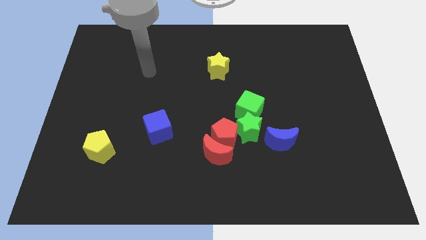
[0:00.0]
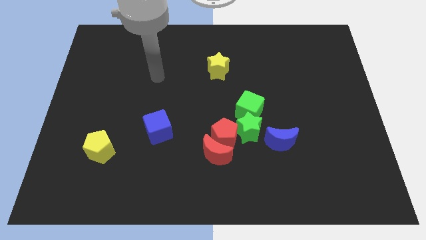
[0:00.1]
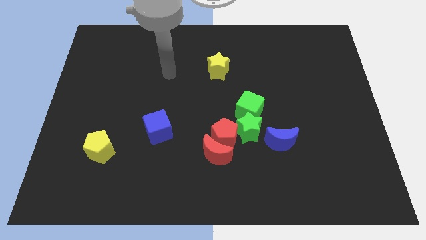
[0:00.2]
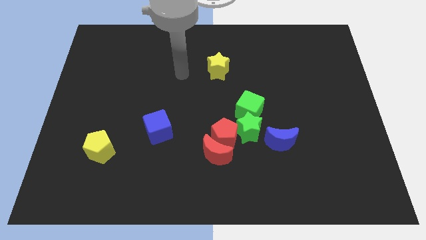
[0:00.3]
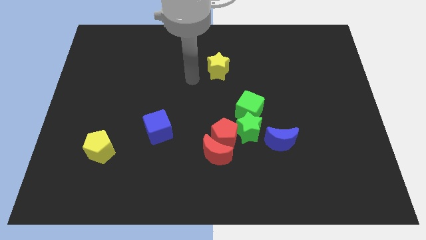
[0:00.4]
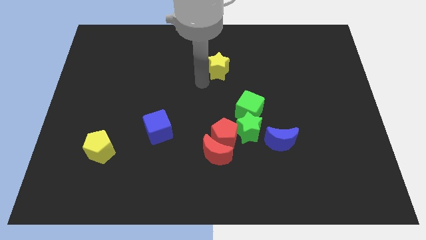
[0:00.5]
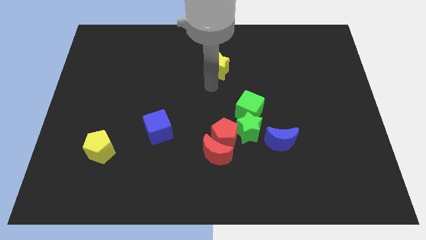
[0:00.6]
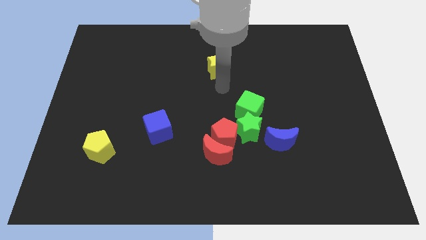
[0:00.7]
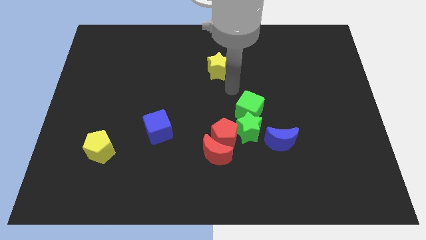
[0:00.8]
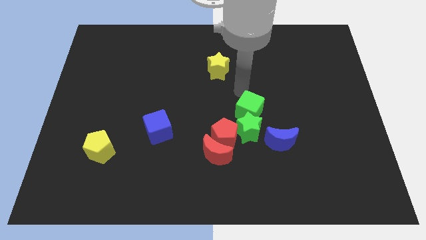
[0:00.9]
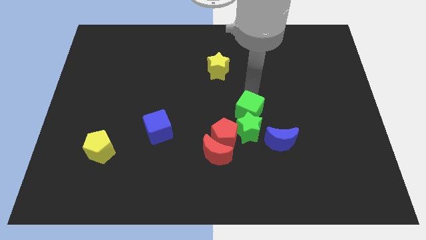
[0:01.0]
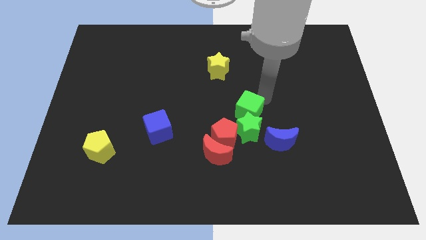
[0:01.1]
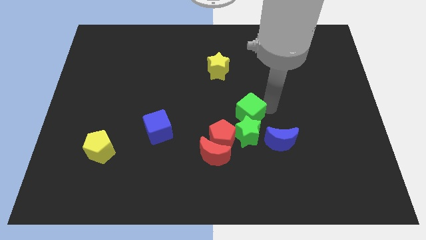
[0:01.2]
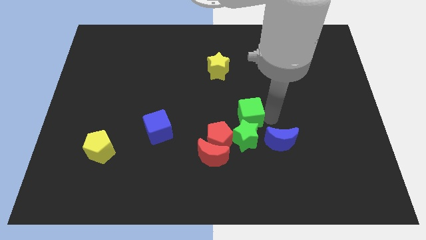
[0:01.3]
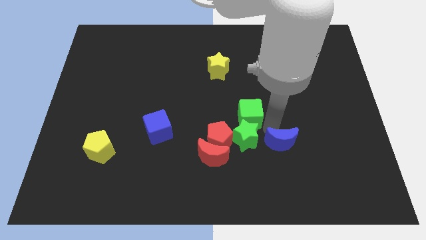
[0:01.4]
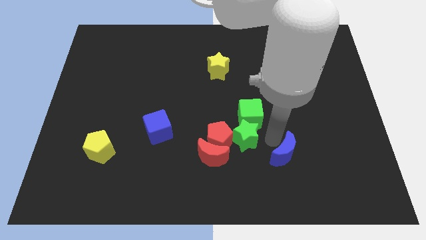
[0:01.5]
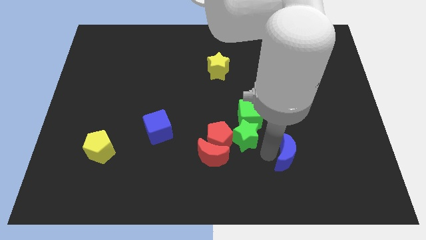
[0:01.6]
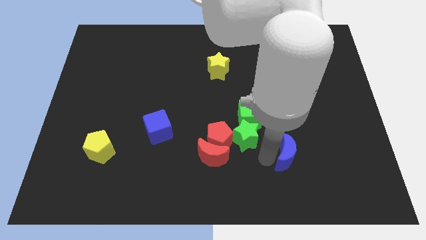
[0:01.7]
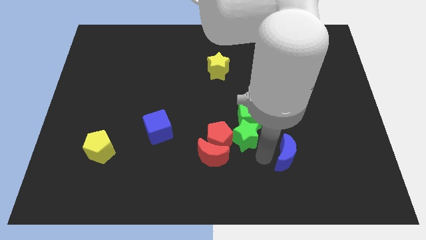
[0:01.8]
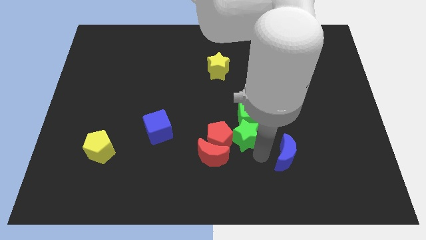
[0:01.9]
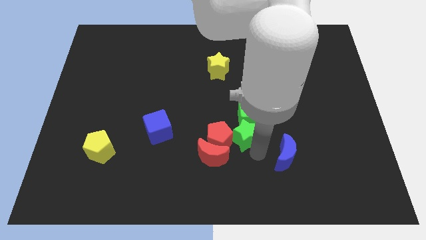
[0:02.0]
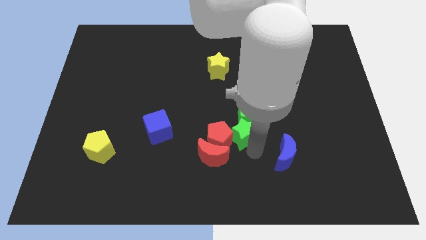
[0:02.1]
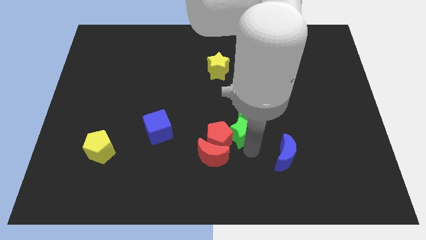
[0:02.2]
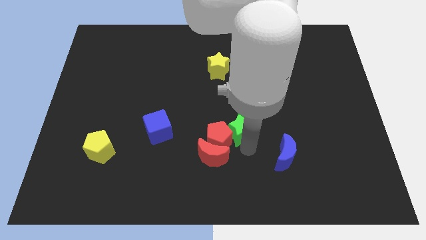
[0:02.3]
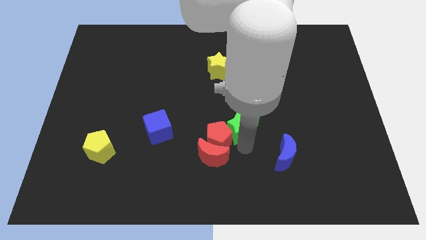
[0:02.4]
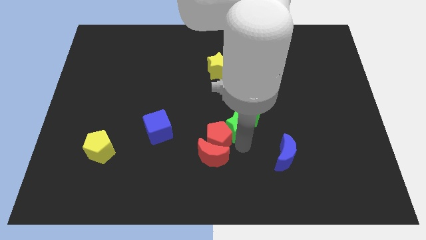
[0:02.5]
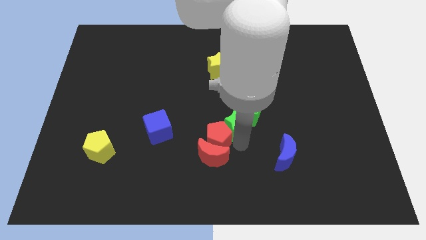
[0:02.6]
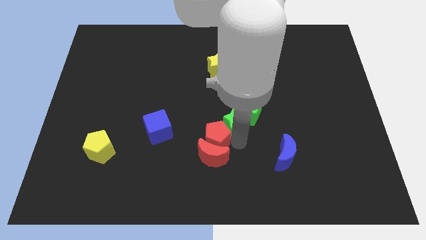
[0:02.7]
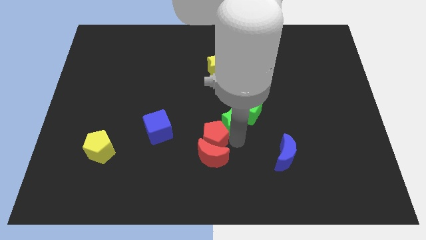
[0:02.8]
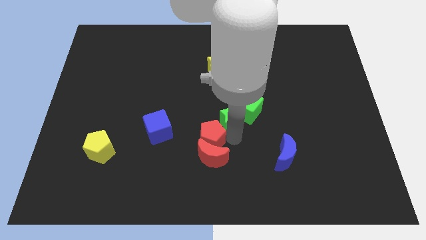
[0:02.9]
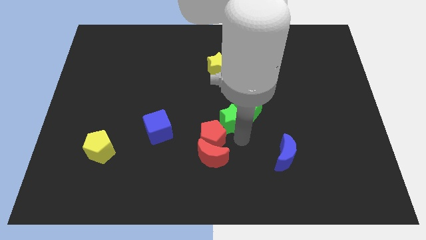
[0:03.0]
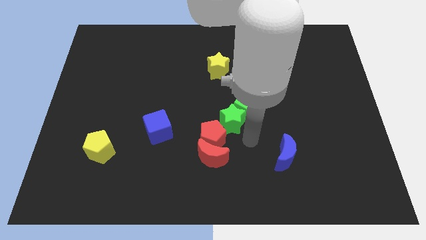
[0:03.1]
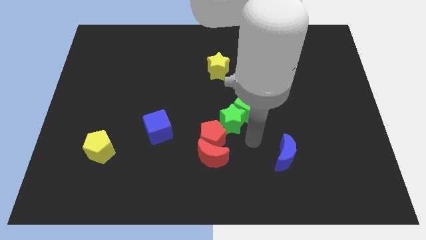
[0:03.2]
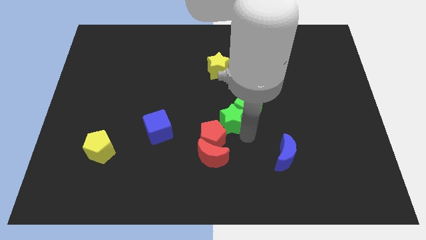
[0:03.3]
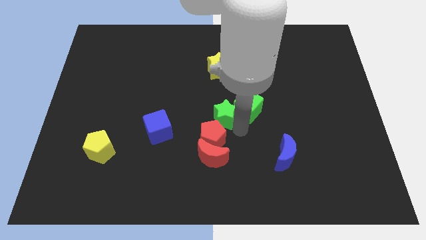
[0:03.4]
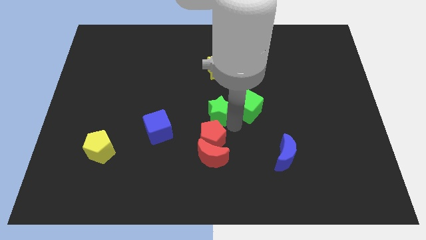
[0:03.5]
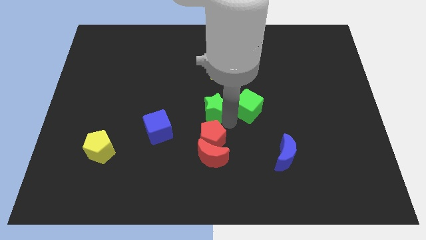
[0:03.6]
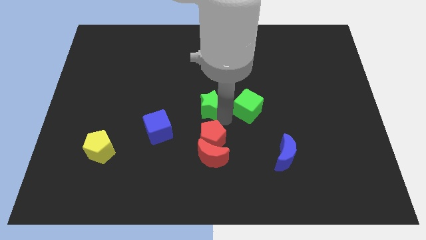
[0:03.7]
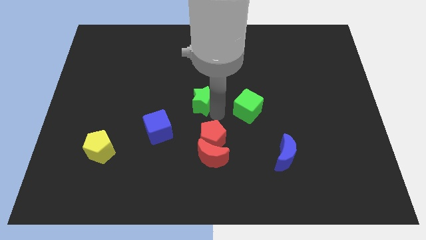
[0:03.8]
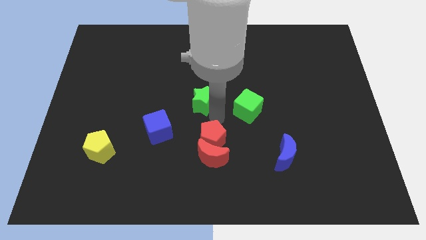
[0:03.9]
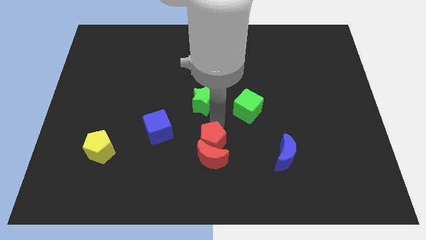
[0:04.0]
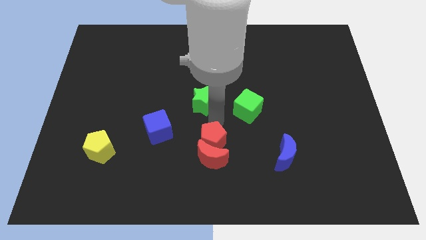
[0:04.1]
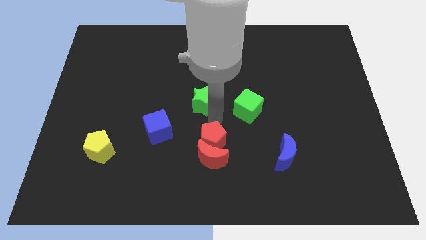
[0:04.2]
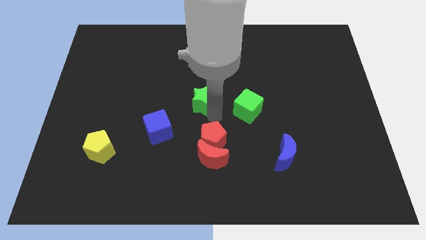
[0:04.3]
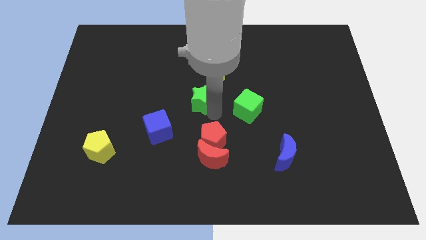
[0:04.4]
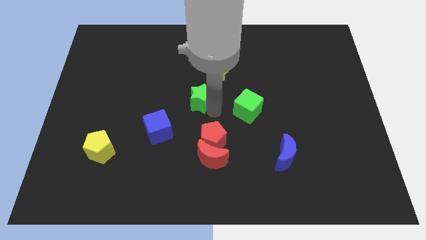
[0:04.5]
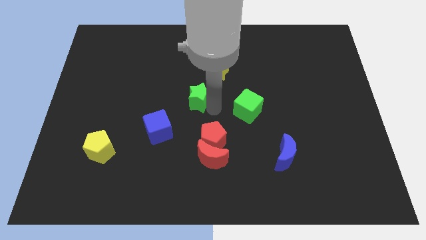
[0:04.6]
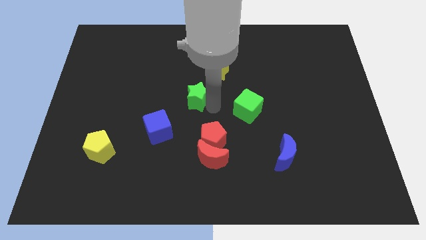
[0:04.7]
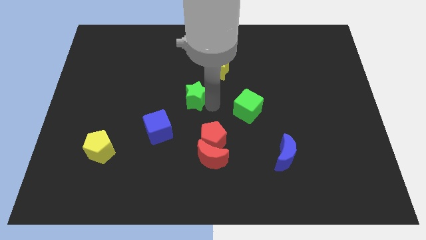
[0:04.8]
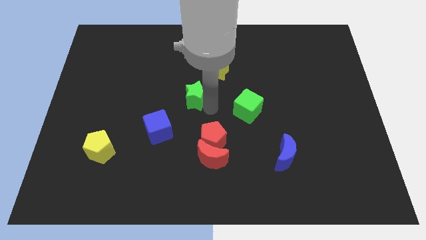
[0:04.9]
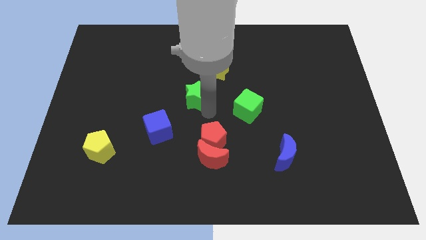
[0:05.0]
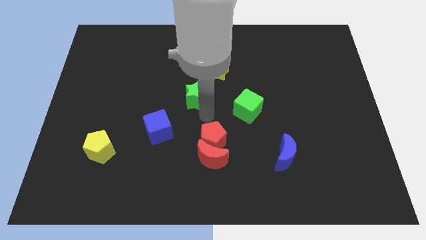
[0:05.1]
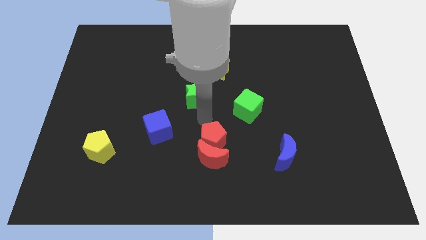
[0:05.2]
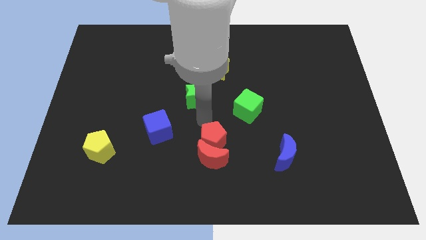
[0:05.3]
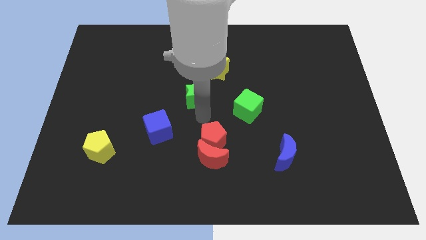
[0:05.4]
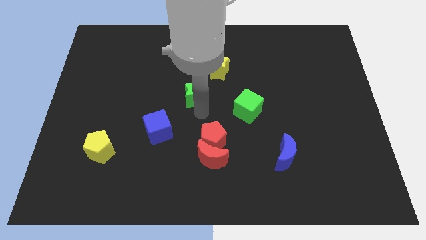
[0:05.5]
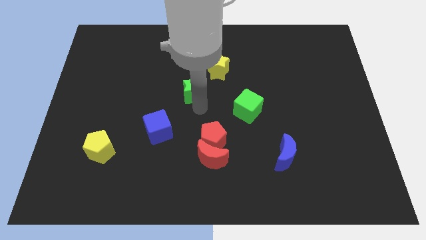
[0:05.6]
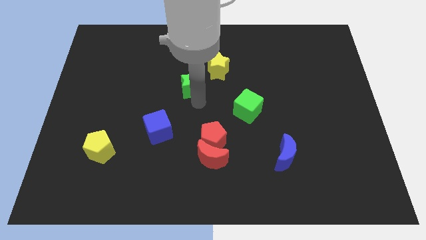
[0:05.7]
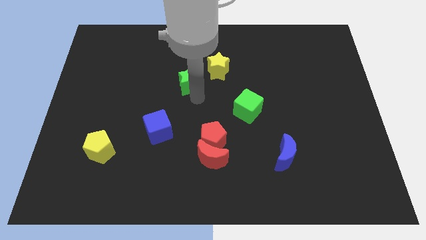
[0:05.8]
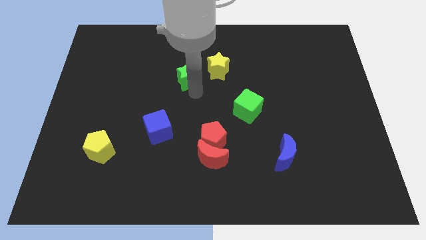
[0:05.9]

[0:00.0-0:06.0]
move the green star diagonally upwards and to the left

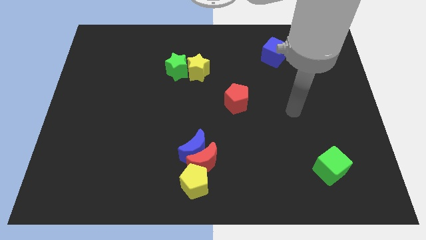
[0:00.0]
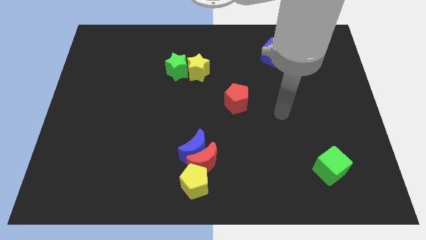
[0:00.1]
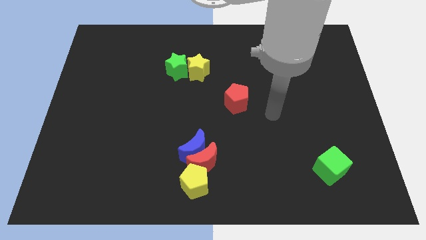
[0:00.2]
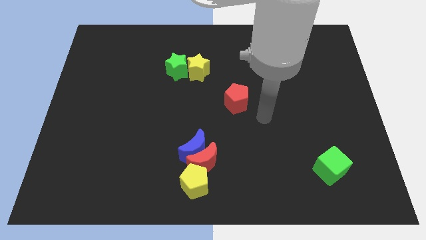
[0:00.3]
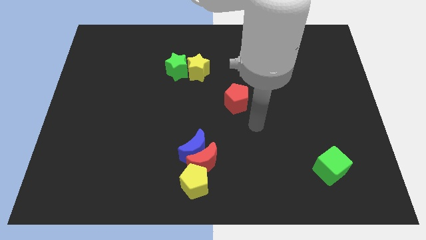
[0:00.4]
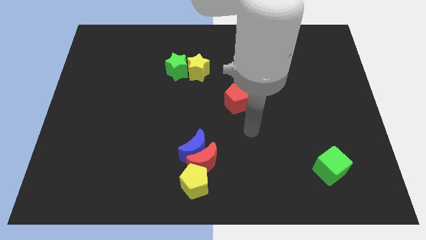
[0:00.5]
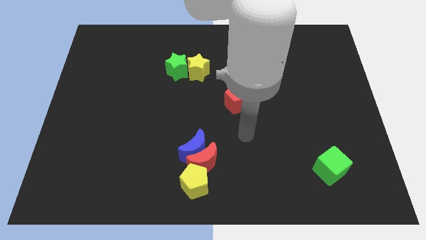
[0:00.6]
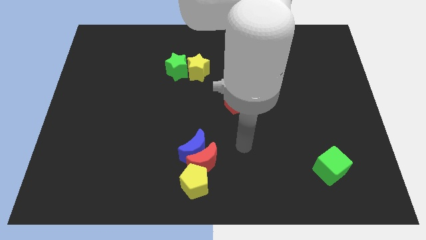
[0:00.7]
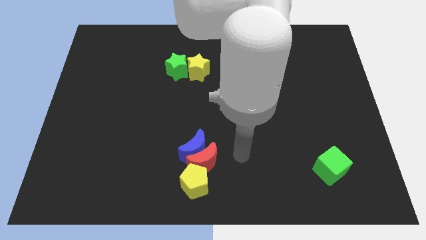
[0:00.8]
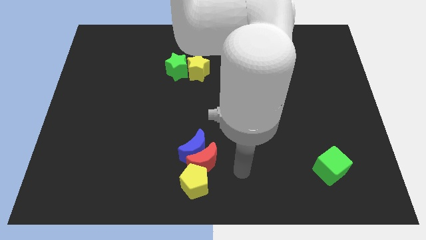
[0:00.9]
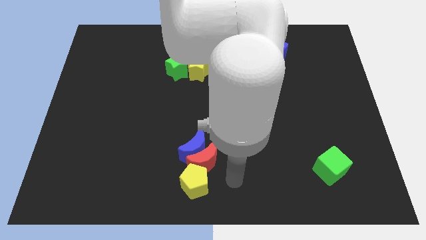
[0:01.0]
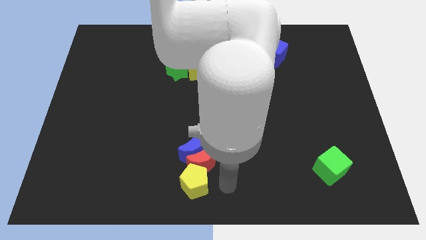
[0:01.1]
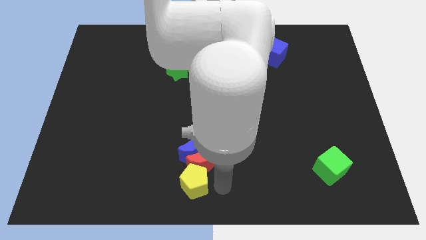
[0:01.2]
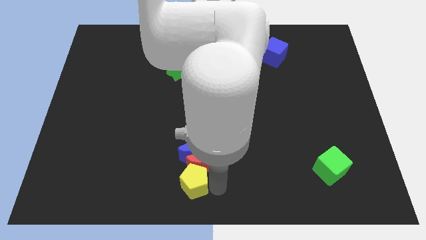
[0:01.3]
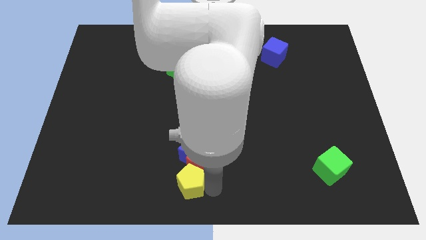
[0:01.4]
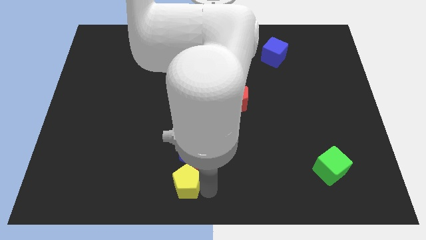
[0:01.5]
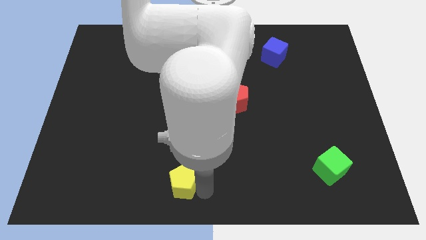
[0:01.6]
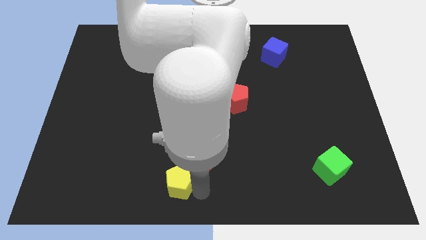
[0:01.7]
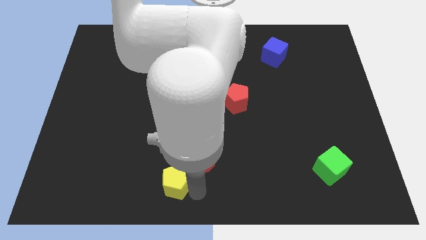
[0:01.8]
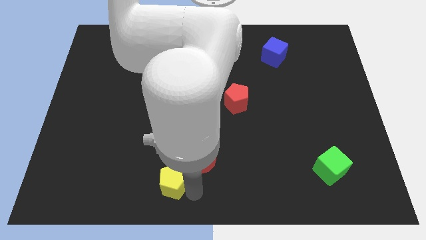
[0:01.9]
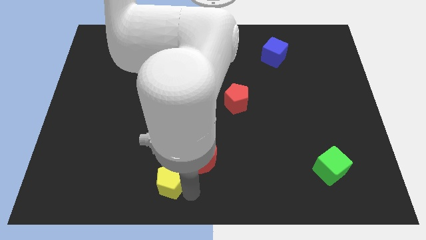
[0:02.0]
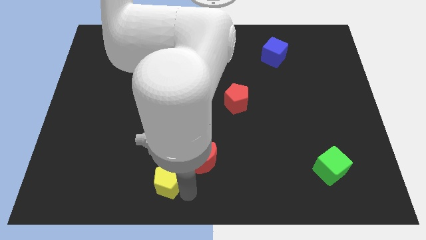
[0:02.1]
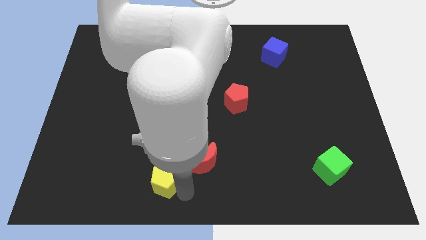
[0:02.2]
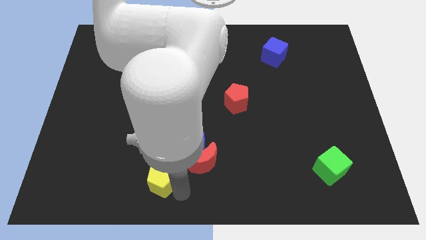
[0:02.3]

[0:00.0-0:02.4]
move the yellow pentagon left a little bit
